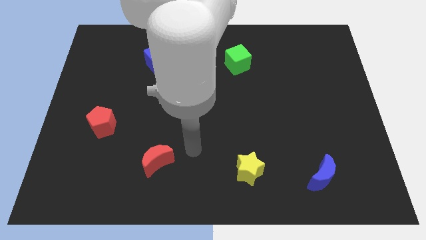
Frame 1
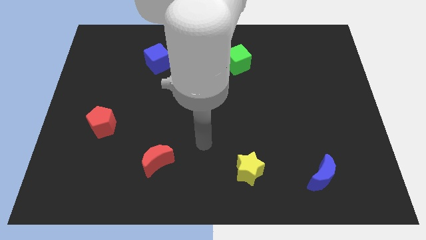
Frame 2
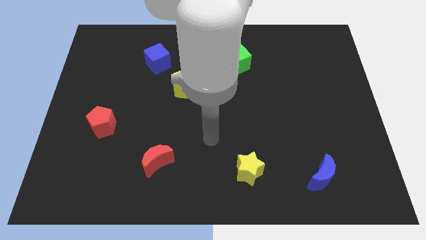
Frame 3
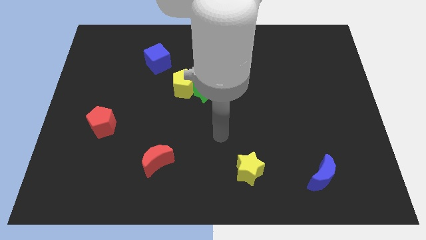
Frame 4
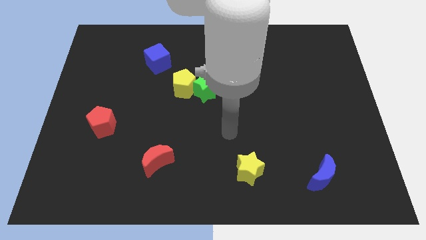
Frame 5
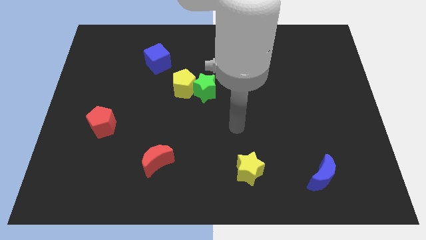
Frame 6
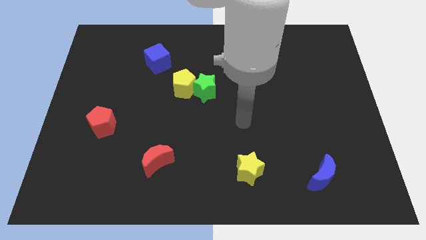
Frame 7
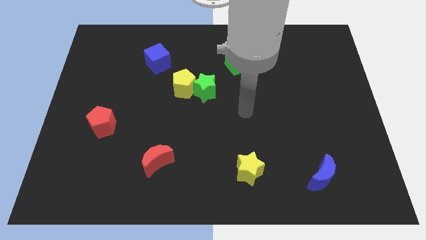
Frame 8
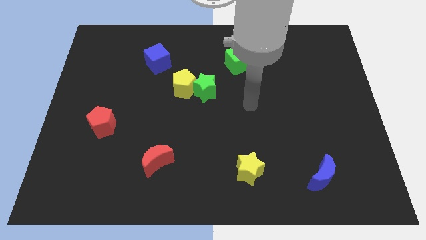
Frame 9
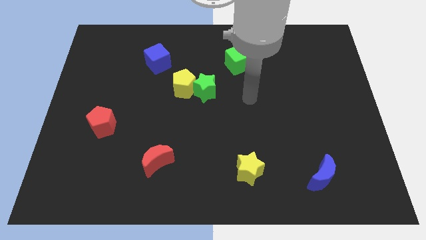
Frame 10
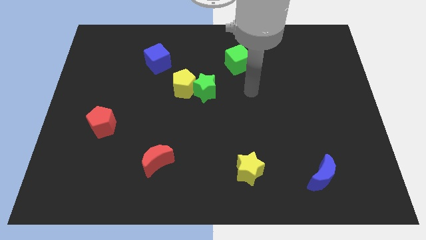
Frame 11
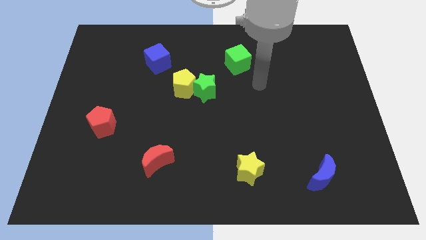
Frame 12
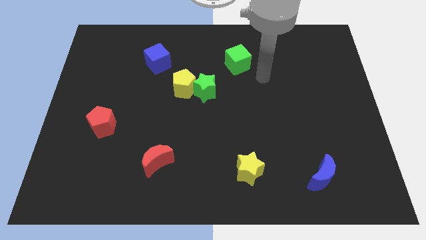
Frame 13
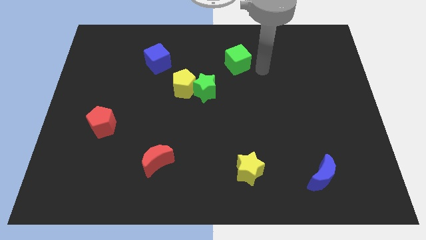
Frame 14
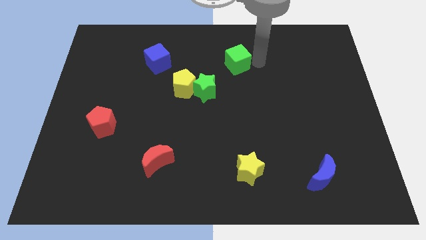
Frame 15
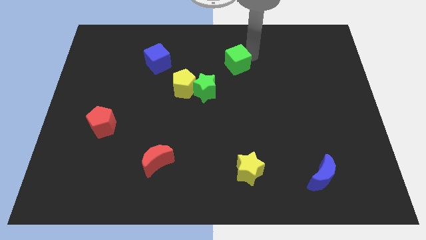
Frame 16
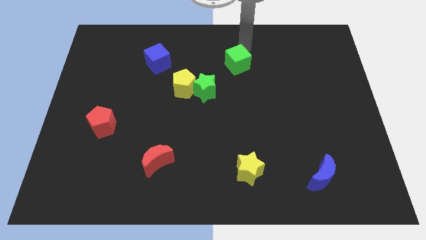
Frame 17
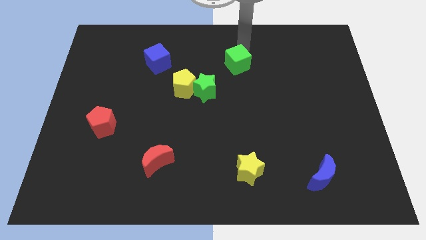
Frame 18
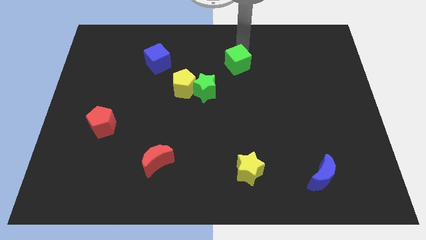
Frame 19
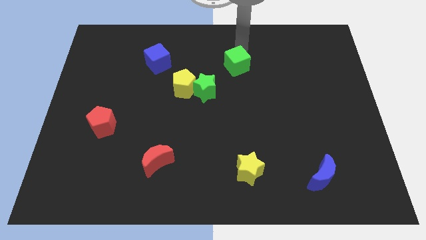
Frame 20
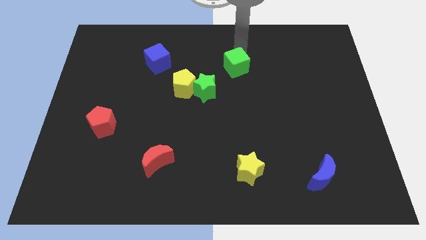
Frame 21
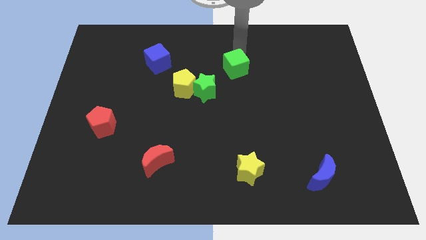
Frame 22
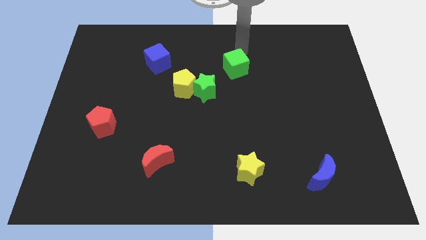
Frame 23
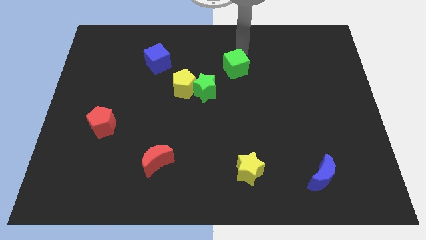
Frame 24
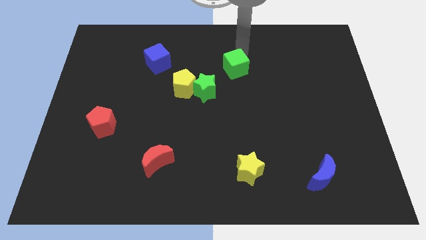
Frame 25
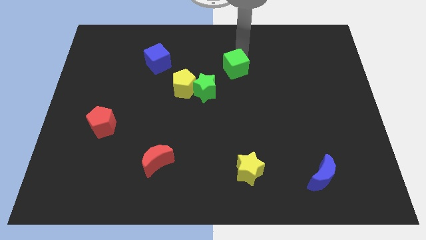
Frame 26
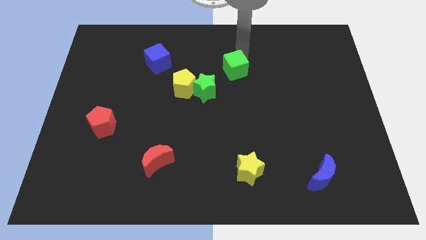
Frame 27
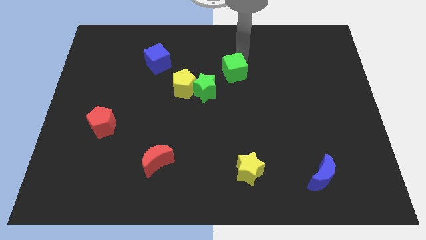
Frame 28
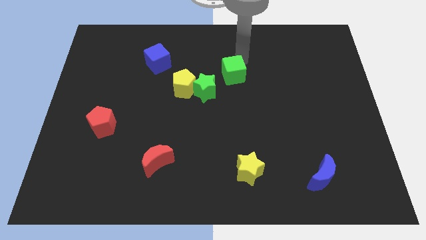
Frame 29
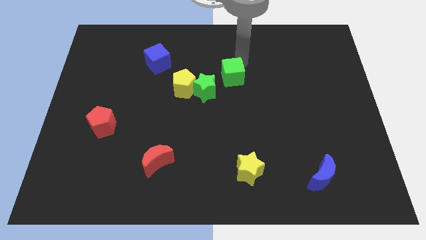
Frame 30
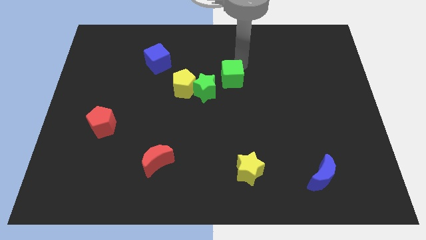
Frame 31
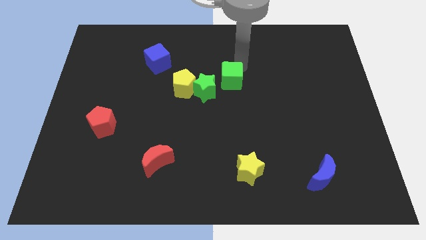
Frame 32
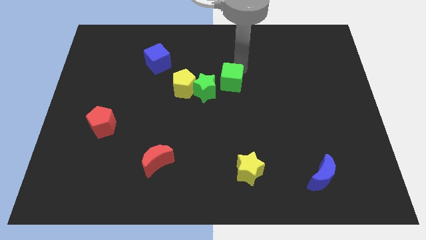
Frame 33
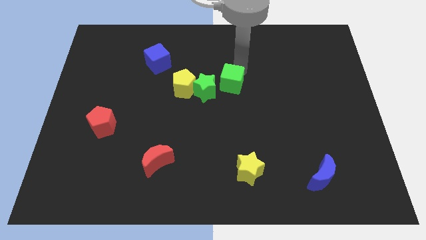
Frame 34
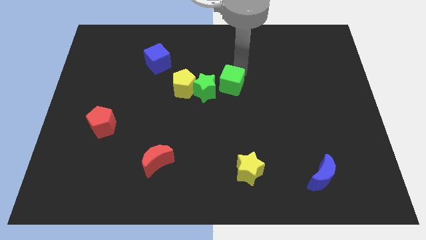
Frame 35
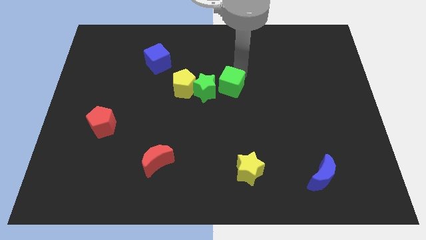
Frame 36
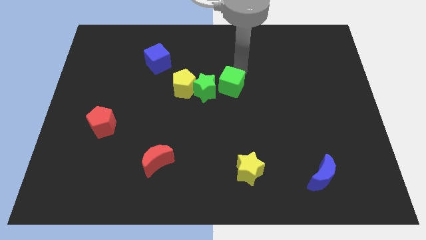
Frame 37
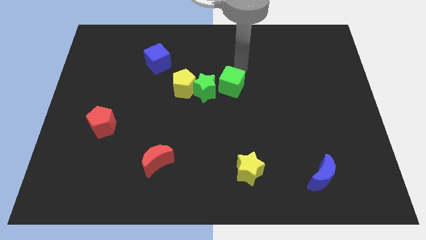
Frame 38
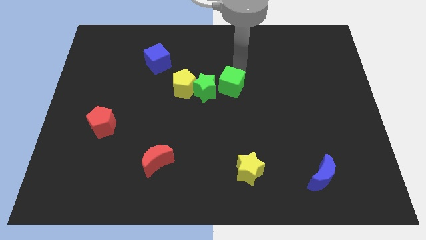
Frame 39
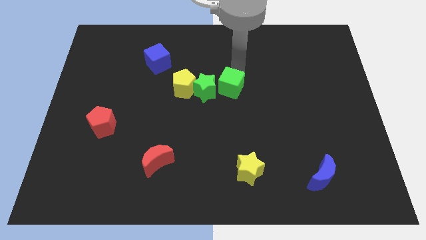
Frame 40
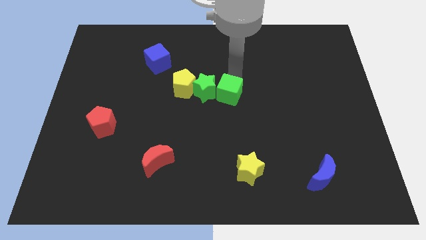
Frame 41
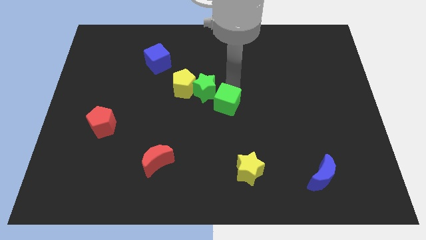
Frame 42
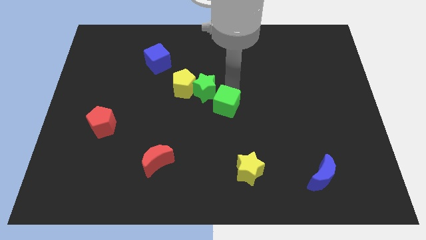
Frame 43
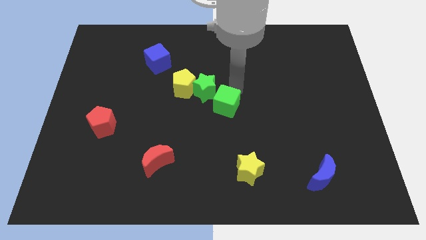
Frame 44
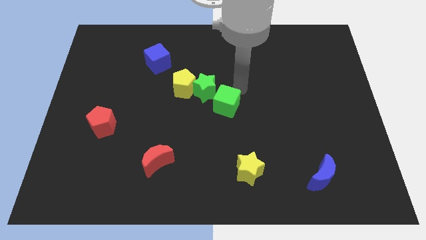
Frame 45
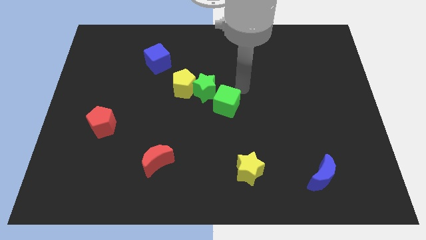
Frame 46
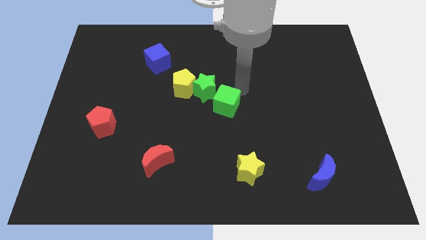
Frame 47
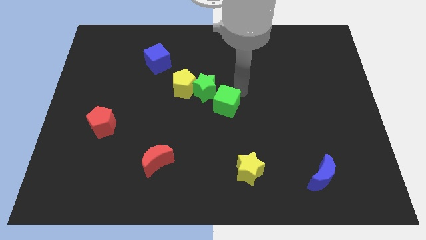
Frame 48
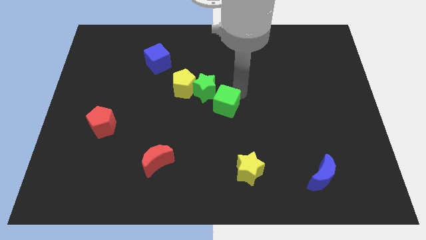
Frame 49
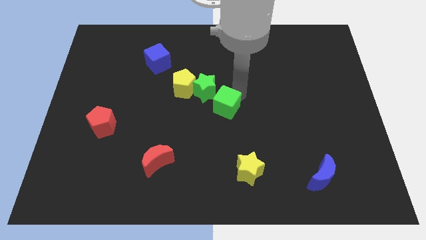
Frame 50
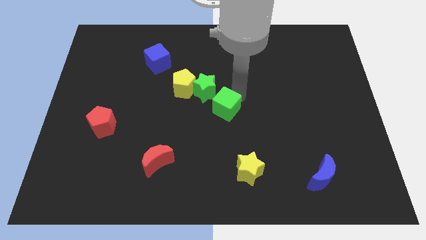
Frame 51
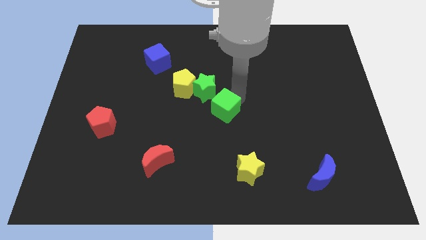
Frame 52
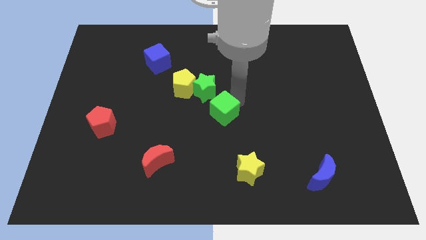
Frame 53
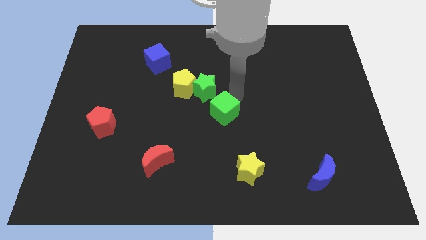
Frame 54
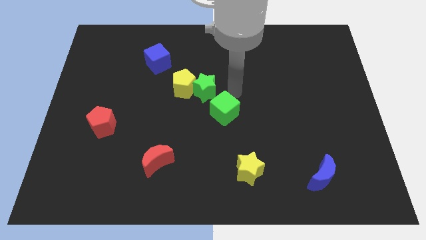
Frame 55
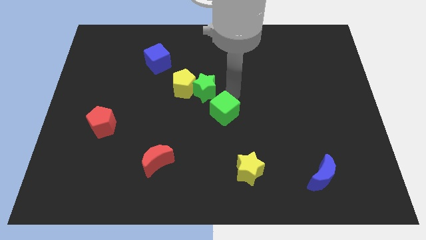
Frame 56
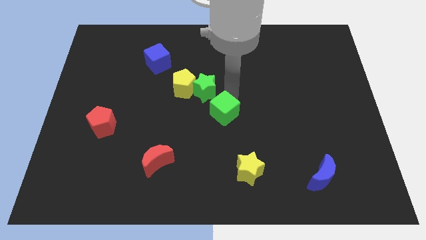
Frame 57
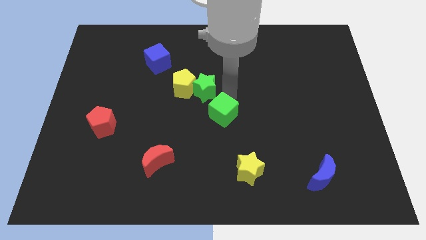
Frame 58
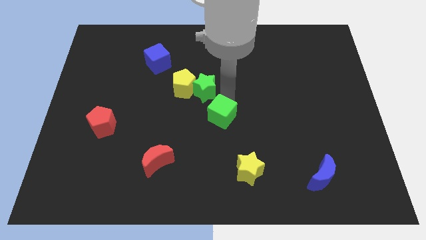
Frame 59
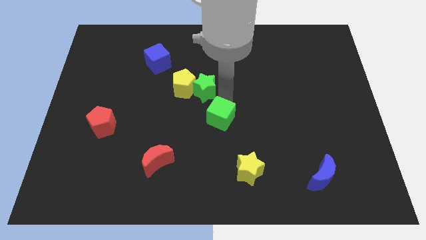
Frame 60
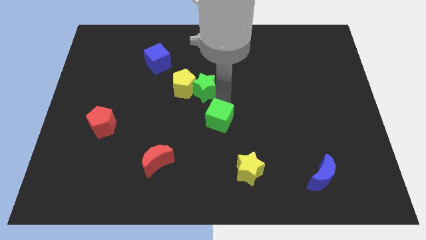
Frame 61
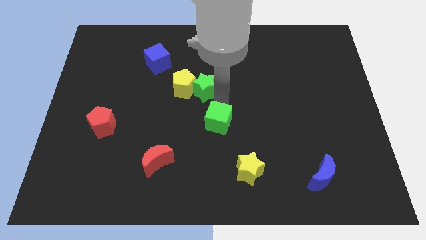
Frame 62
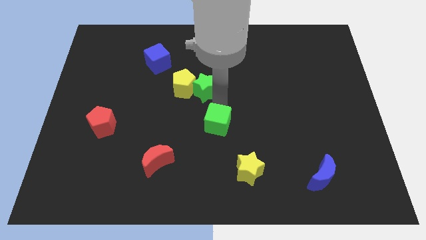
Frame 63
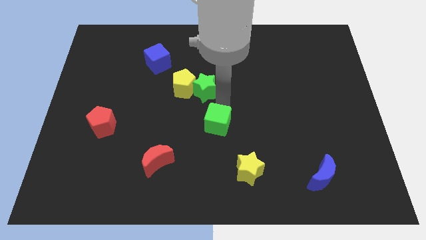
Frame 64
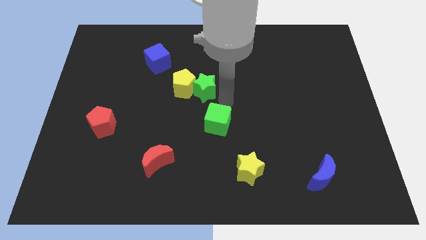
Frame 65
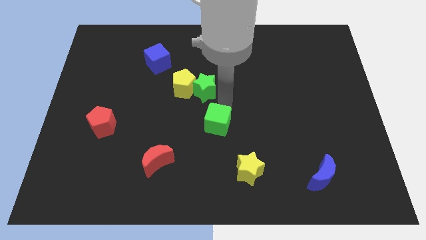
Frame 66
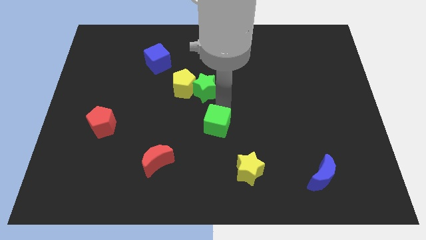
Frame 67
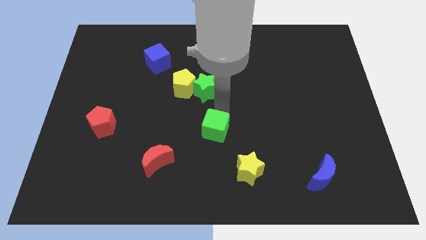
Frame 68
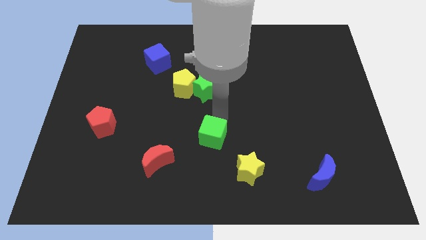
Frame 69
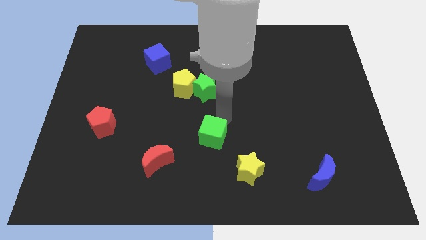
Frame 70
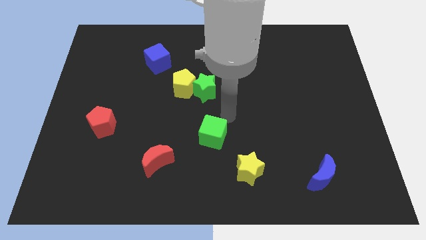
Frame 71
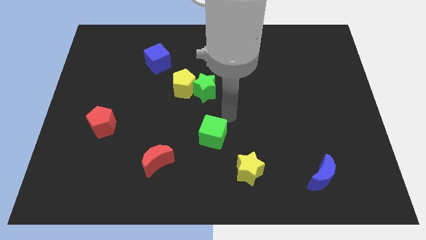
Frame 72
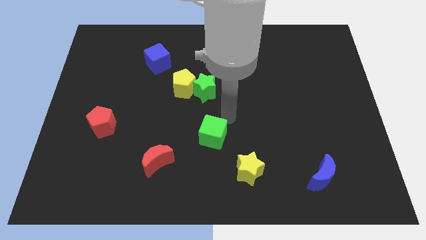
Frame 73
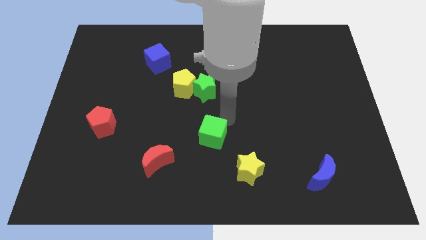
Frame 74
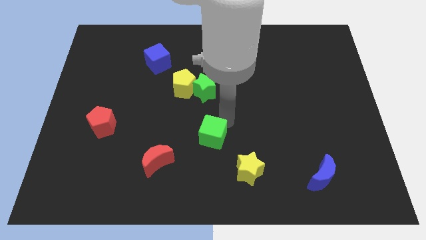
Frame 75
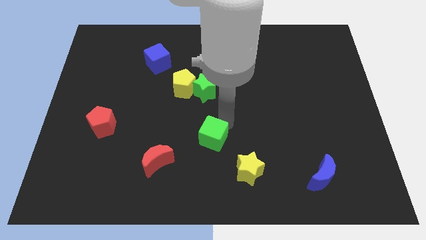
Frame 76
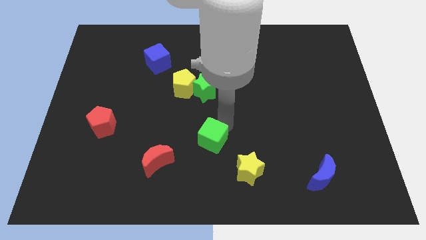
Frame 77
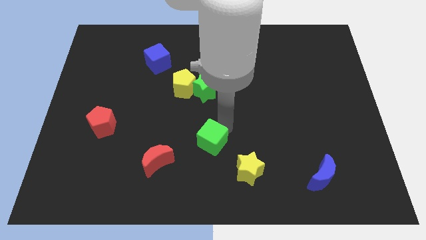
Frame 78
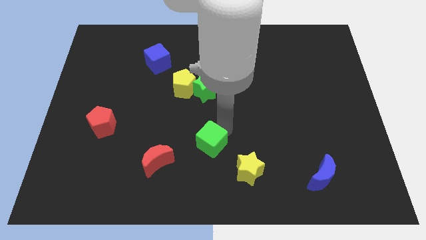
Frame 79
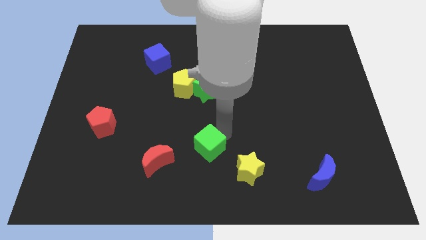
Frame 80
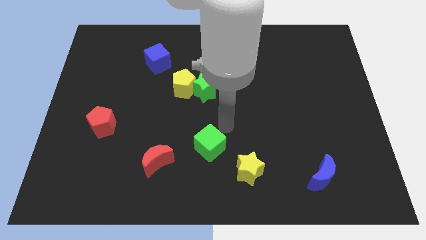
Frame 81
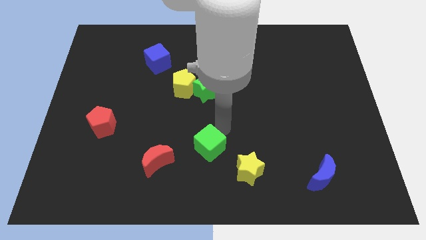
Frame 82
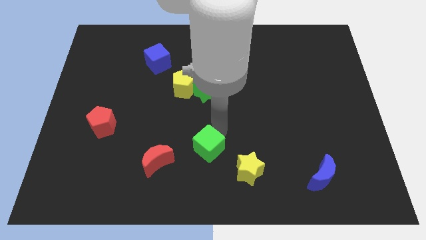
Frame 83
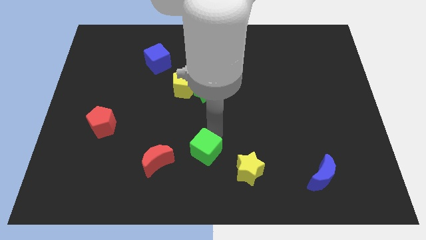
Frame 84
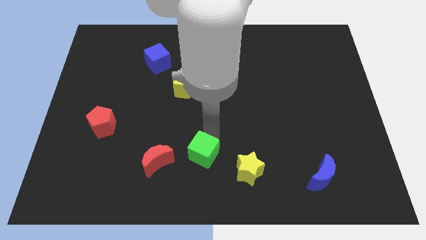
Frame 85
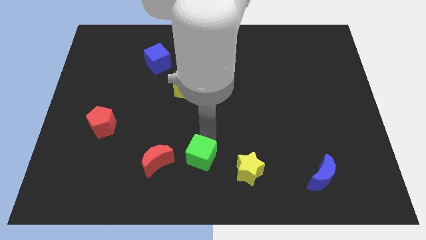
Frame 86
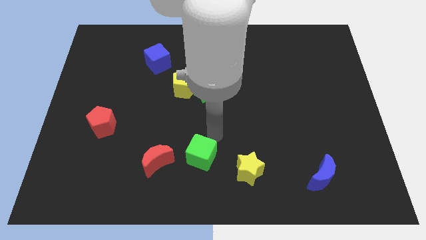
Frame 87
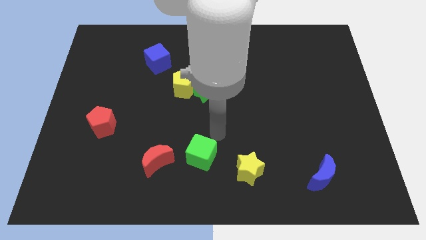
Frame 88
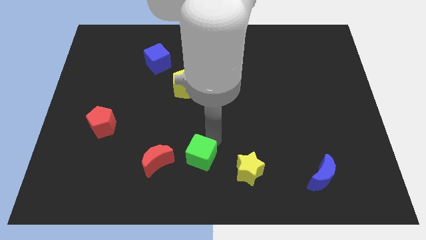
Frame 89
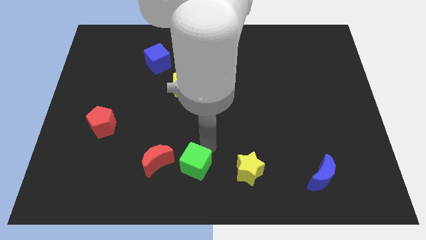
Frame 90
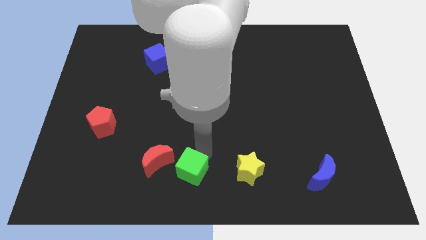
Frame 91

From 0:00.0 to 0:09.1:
slide the green cube to the bottom right of the red moon
